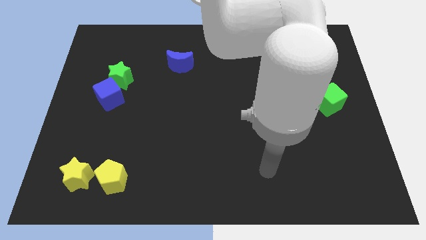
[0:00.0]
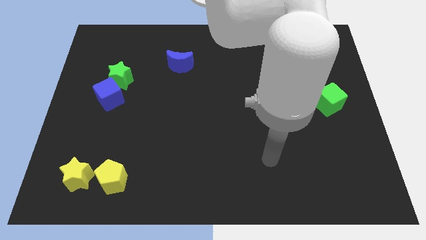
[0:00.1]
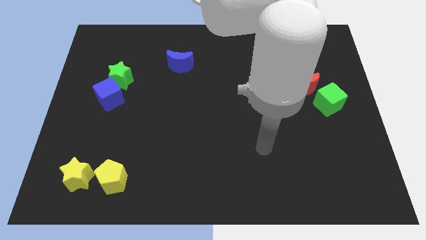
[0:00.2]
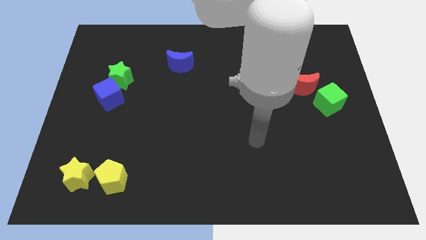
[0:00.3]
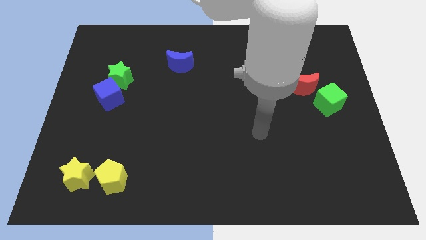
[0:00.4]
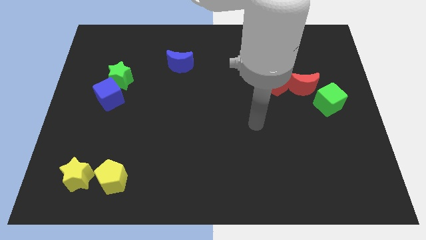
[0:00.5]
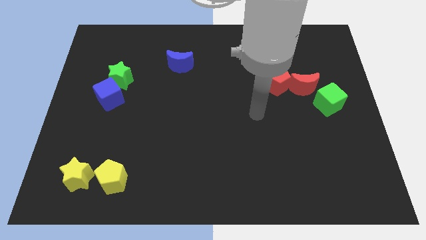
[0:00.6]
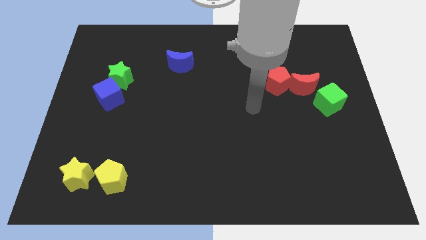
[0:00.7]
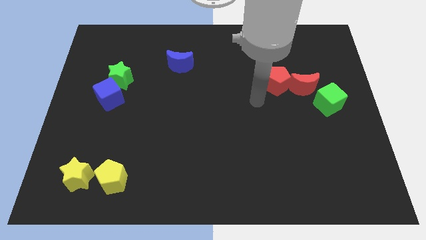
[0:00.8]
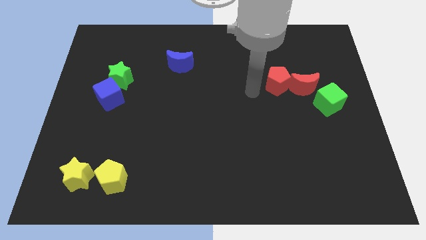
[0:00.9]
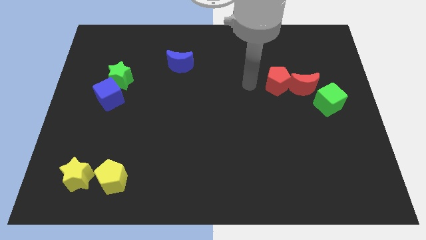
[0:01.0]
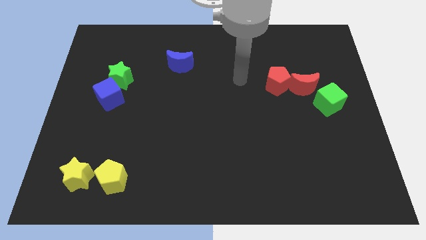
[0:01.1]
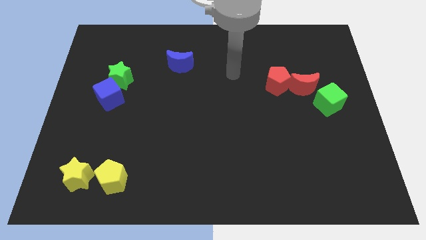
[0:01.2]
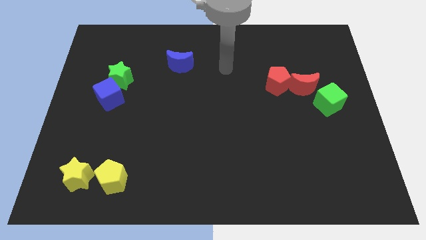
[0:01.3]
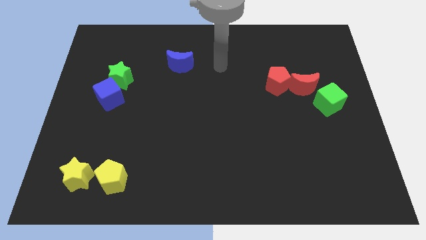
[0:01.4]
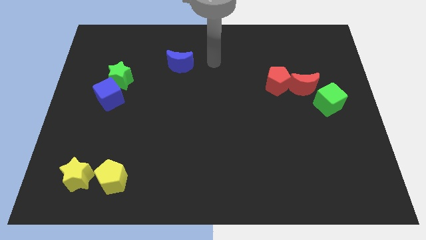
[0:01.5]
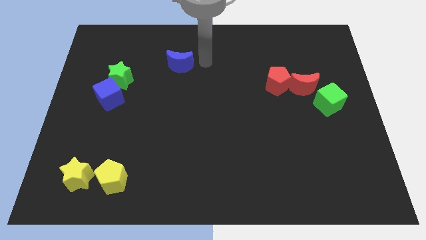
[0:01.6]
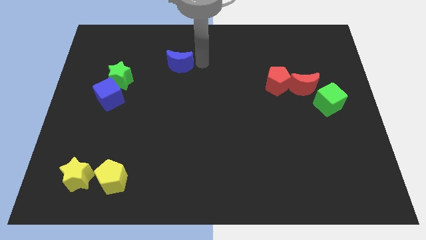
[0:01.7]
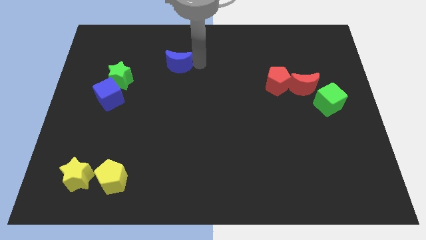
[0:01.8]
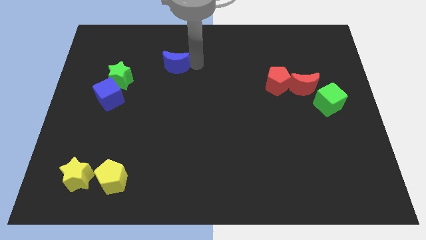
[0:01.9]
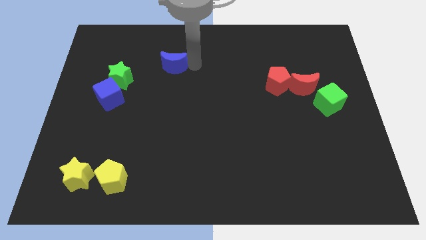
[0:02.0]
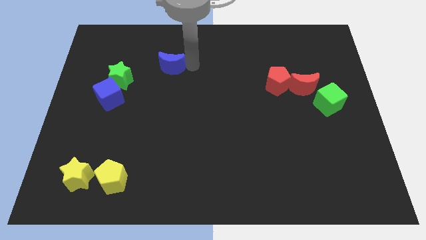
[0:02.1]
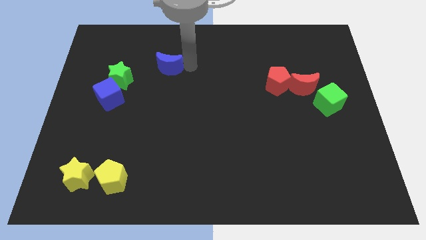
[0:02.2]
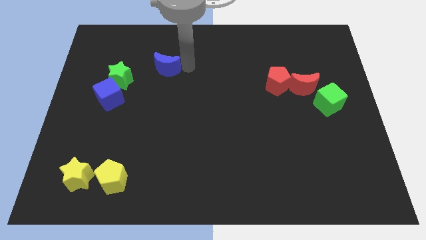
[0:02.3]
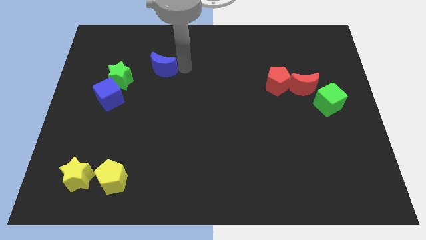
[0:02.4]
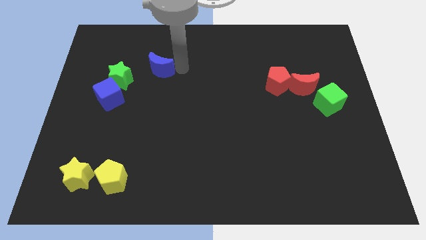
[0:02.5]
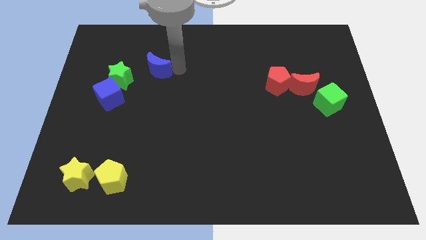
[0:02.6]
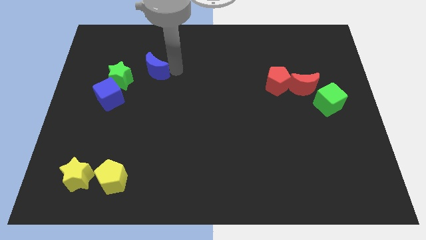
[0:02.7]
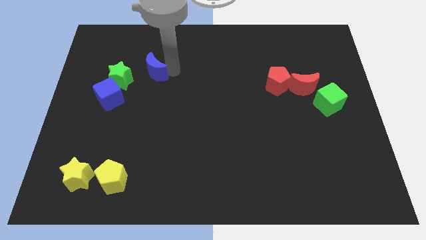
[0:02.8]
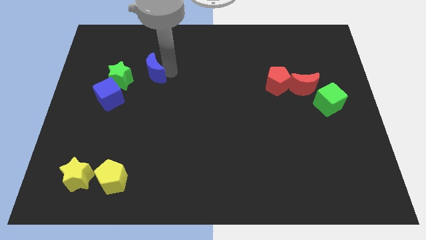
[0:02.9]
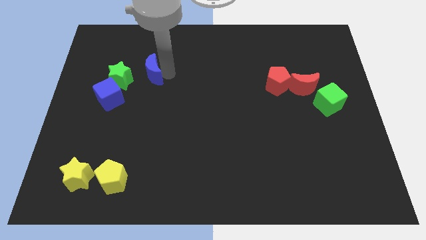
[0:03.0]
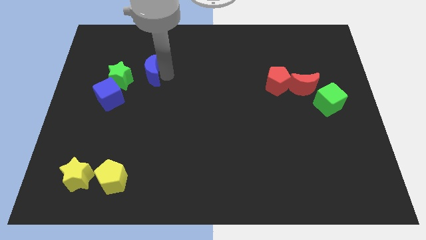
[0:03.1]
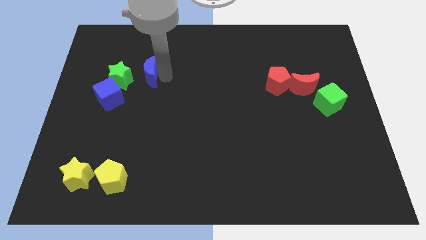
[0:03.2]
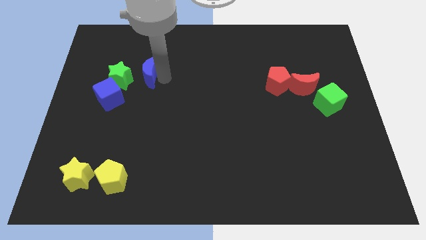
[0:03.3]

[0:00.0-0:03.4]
slightly slide the blue moon left

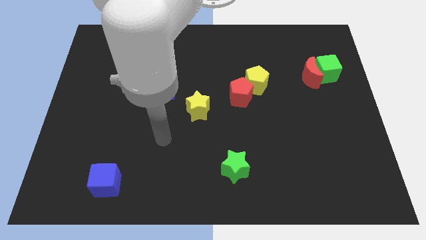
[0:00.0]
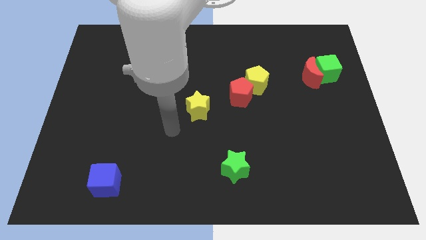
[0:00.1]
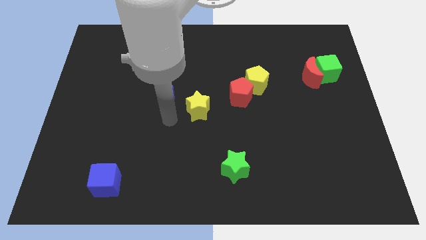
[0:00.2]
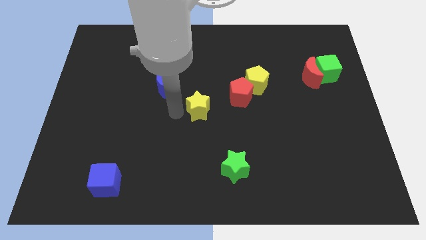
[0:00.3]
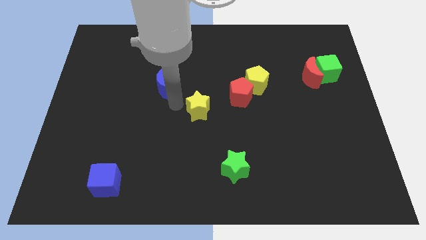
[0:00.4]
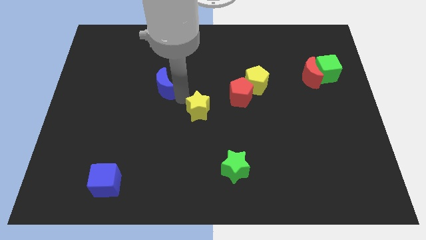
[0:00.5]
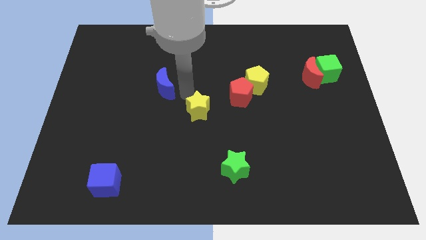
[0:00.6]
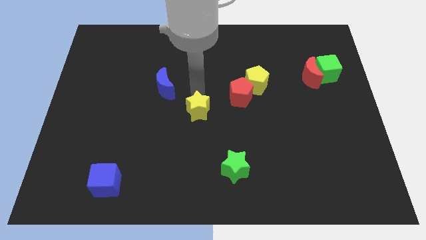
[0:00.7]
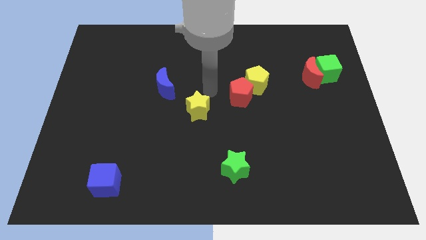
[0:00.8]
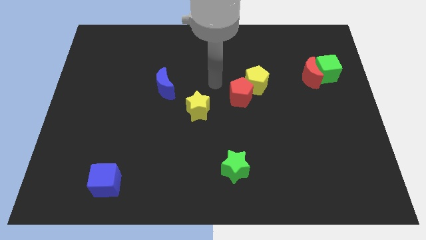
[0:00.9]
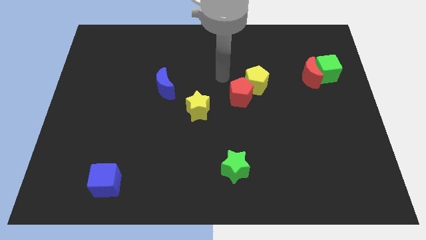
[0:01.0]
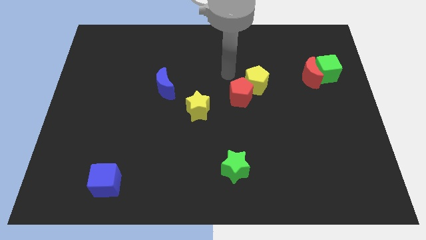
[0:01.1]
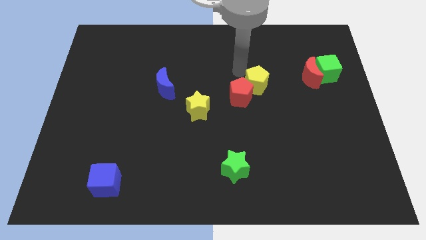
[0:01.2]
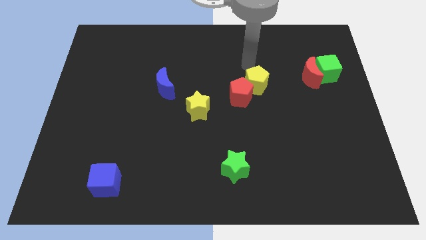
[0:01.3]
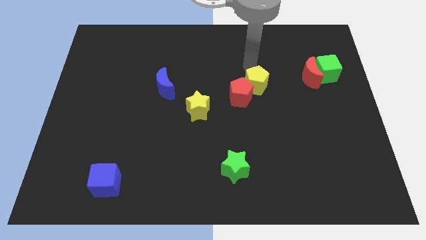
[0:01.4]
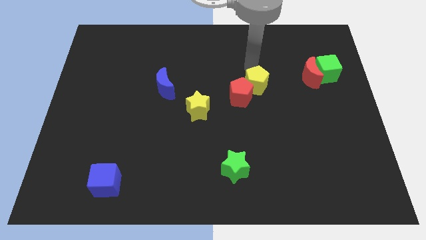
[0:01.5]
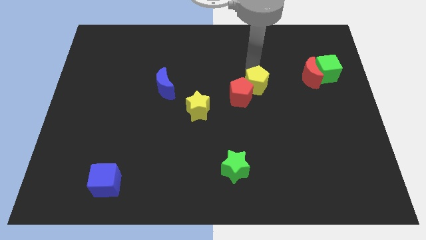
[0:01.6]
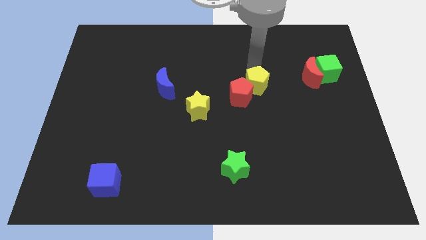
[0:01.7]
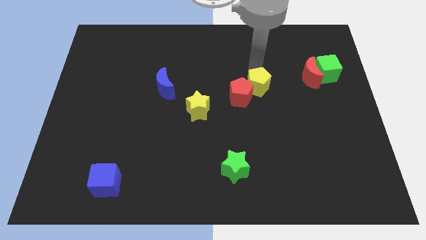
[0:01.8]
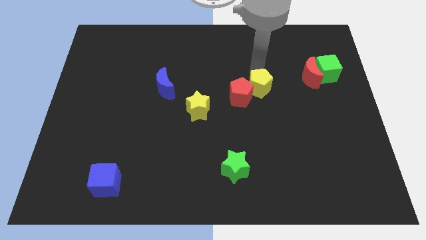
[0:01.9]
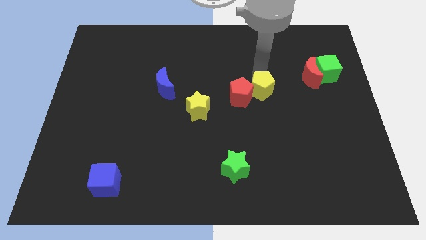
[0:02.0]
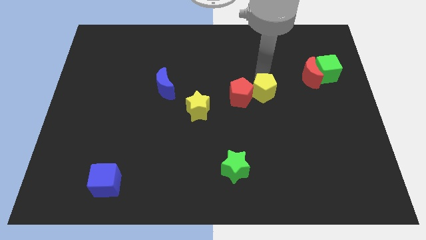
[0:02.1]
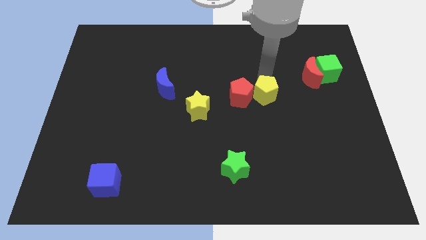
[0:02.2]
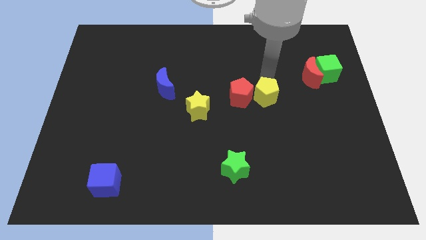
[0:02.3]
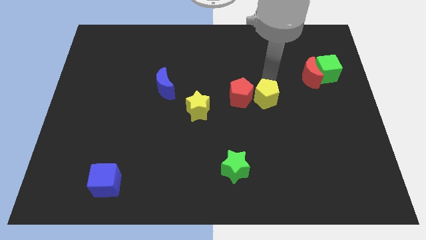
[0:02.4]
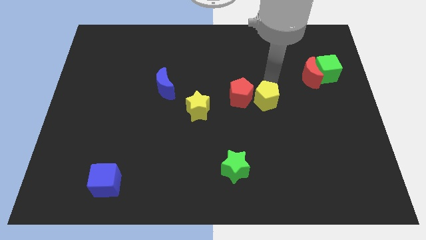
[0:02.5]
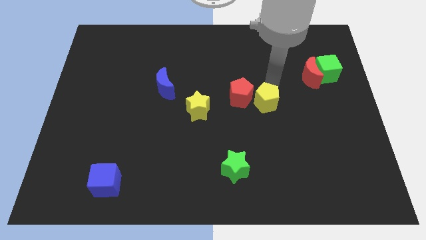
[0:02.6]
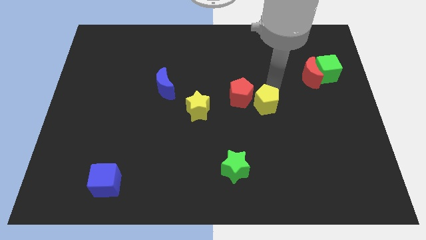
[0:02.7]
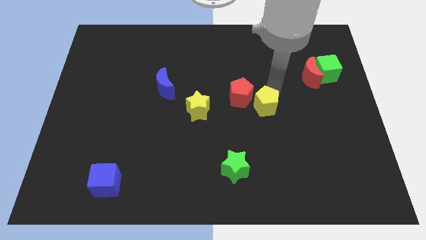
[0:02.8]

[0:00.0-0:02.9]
slightly push the yellow pentagon down

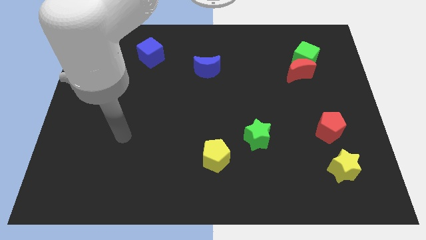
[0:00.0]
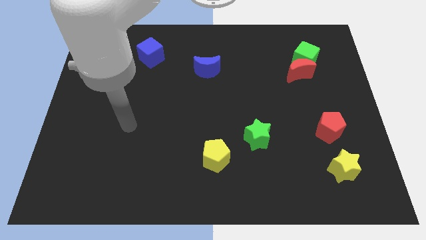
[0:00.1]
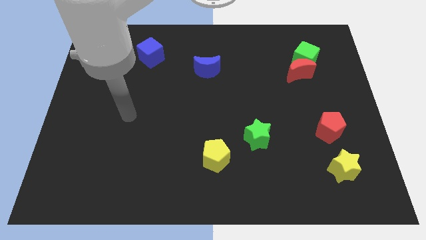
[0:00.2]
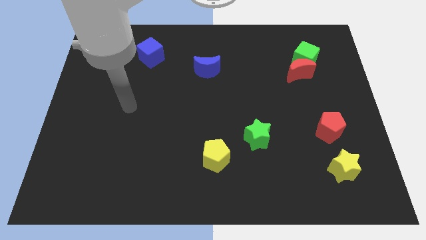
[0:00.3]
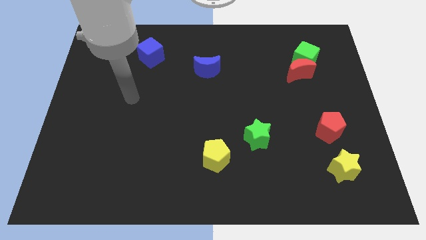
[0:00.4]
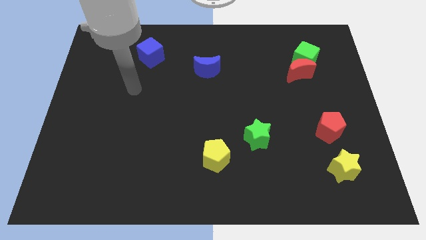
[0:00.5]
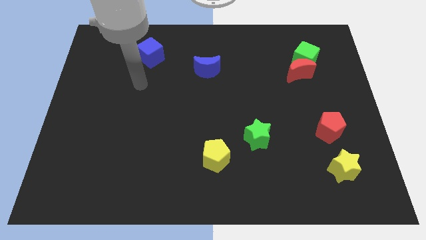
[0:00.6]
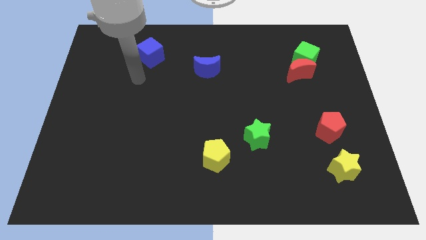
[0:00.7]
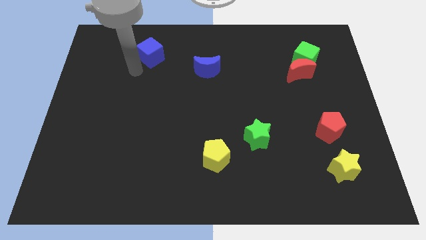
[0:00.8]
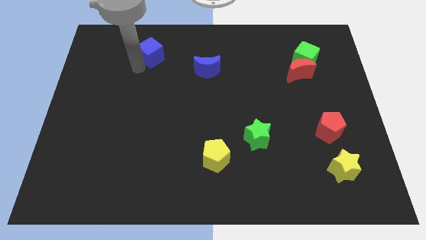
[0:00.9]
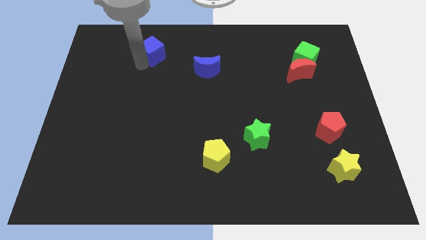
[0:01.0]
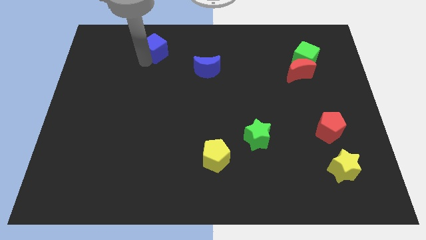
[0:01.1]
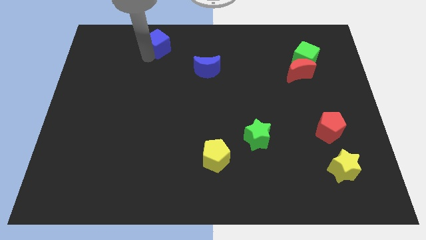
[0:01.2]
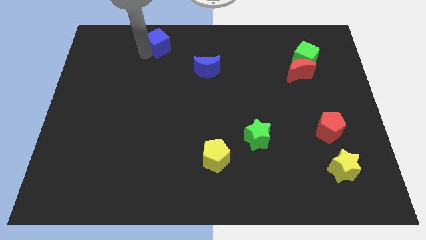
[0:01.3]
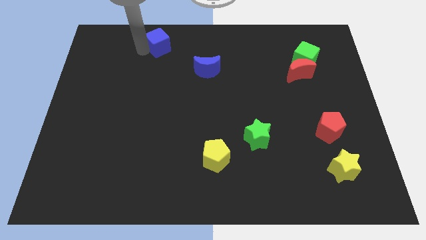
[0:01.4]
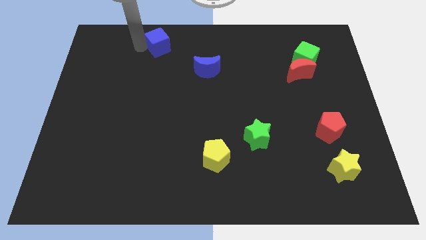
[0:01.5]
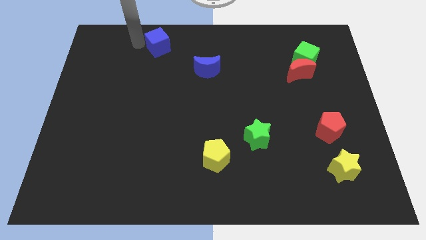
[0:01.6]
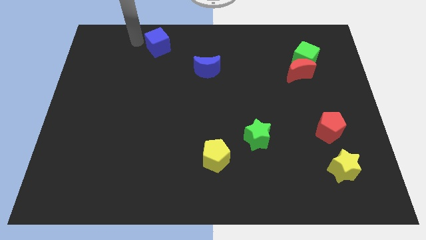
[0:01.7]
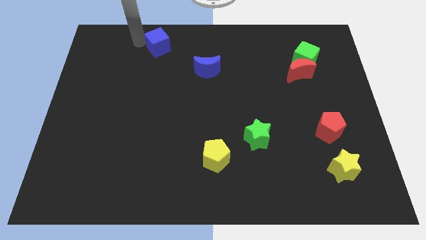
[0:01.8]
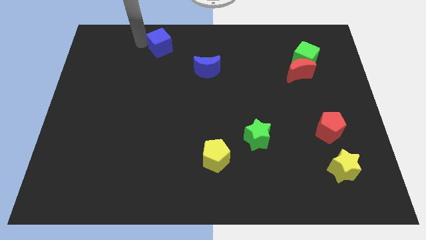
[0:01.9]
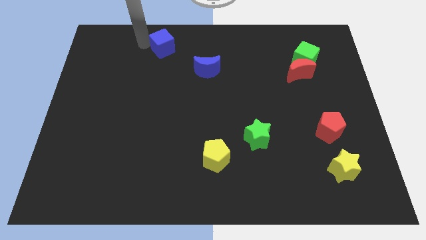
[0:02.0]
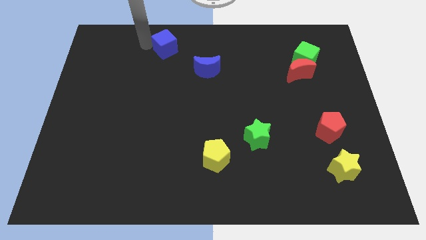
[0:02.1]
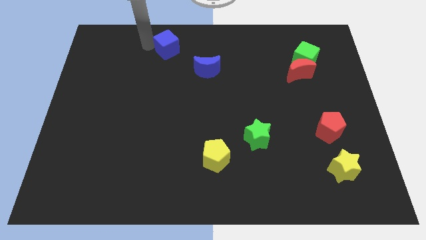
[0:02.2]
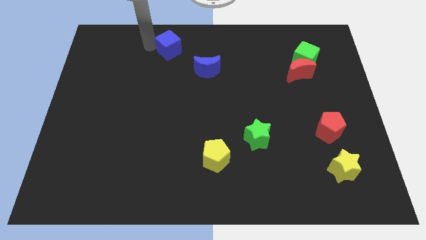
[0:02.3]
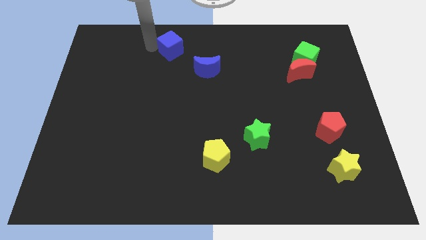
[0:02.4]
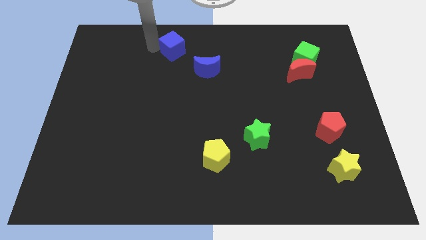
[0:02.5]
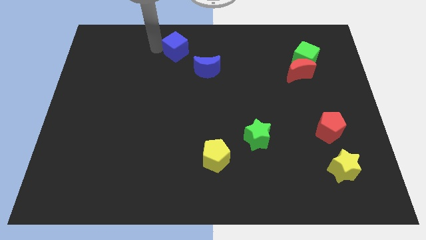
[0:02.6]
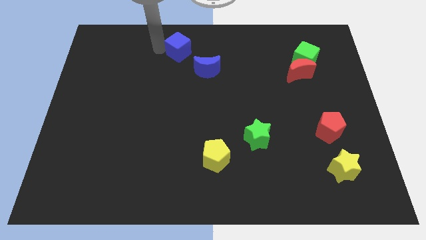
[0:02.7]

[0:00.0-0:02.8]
move the blue cube a little to the right
